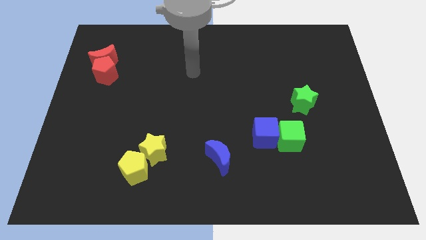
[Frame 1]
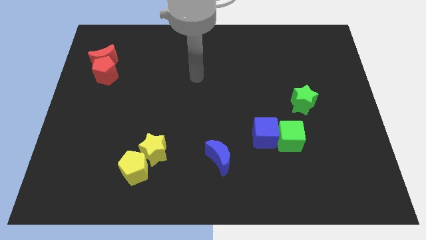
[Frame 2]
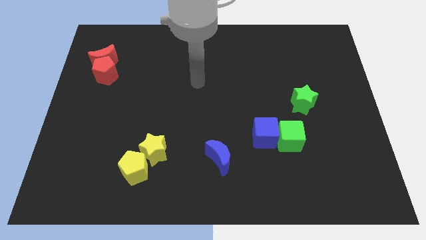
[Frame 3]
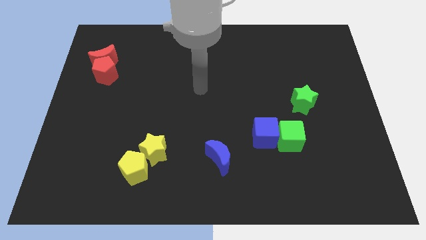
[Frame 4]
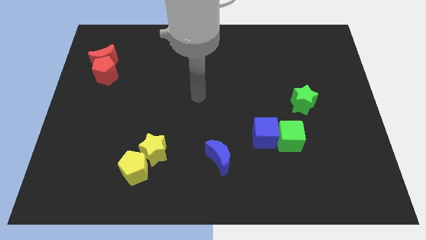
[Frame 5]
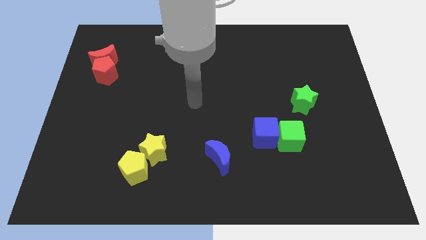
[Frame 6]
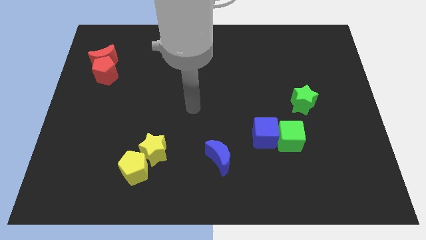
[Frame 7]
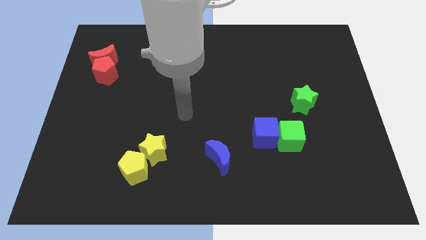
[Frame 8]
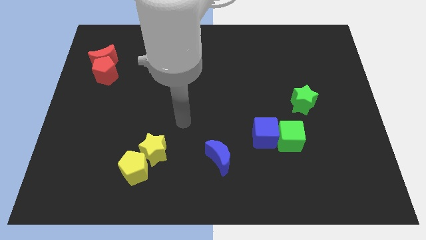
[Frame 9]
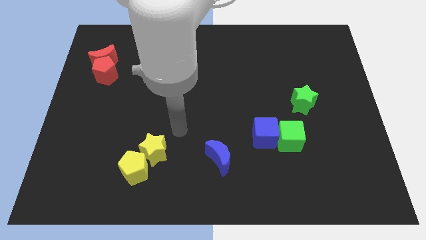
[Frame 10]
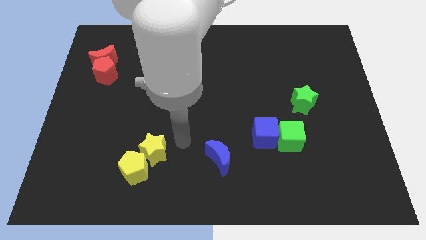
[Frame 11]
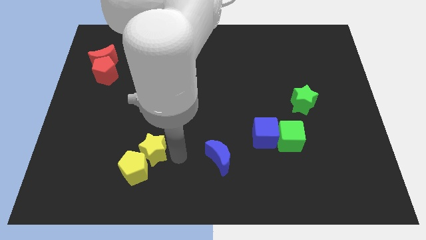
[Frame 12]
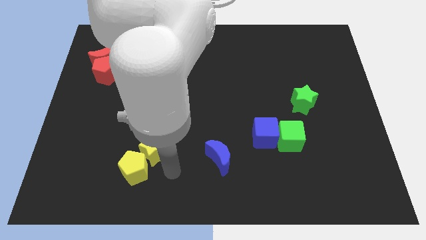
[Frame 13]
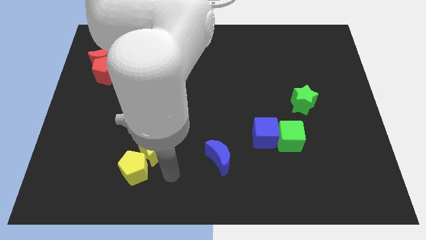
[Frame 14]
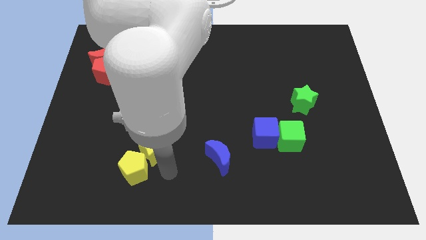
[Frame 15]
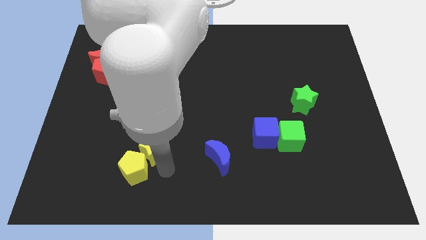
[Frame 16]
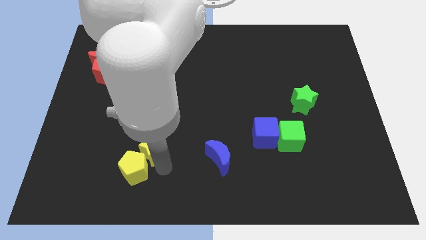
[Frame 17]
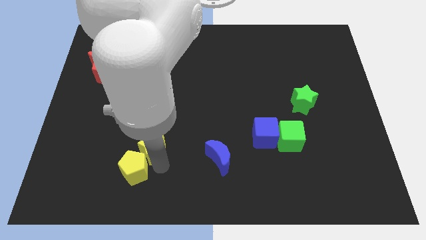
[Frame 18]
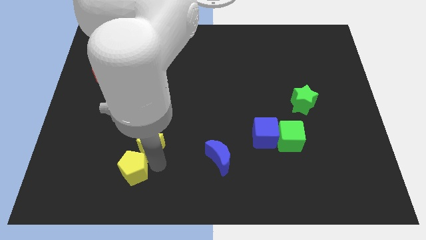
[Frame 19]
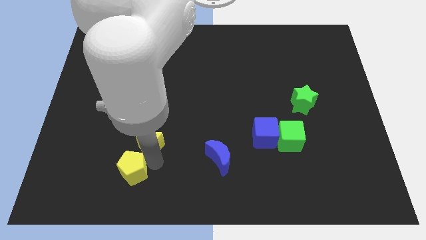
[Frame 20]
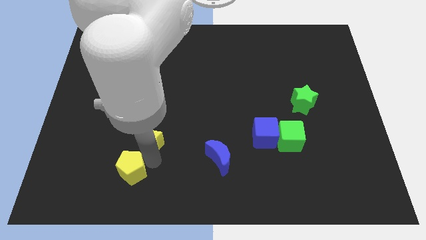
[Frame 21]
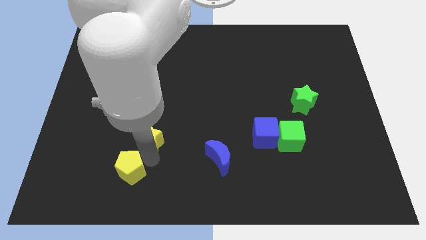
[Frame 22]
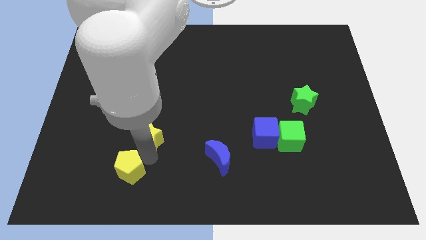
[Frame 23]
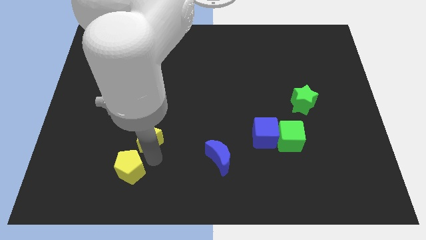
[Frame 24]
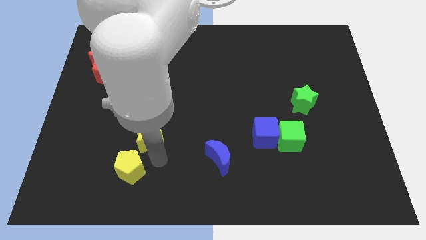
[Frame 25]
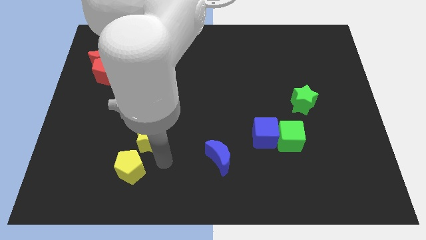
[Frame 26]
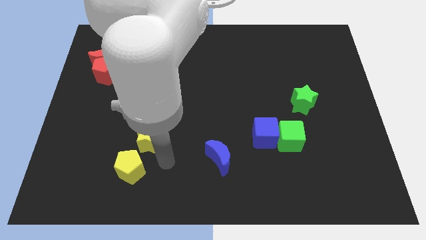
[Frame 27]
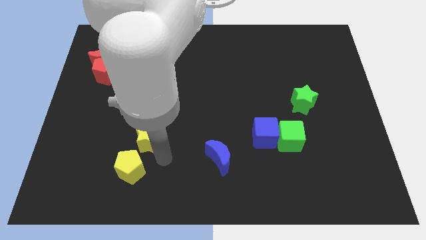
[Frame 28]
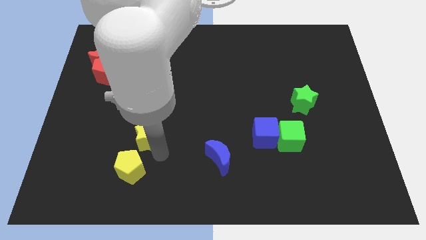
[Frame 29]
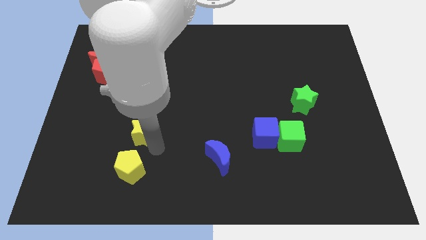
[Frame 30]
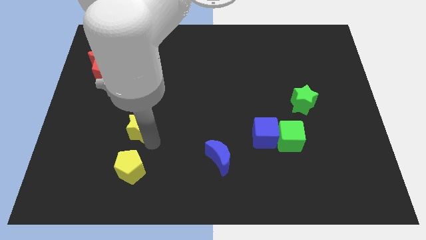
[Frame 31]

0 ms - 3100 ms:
move the yellow star diagonally upwards and left slightly

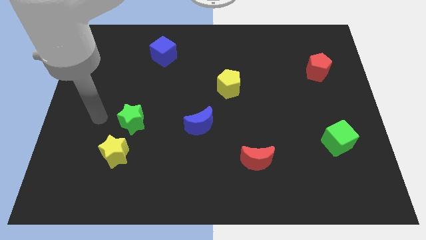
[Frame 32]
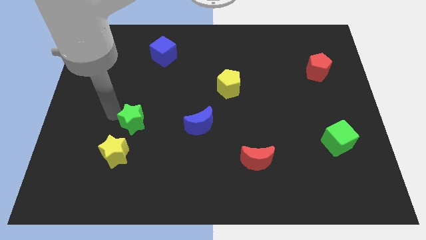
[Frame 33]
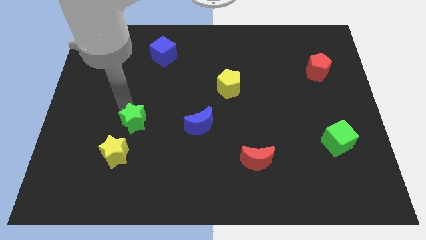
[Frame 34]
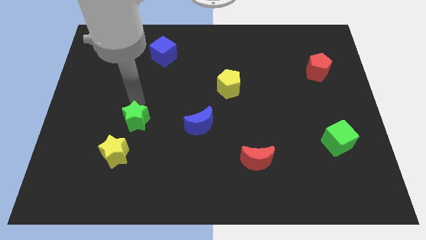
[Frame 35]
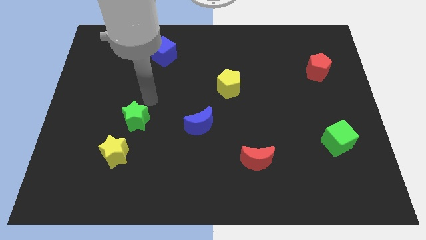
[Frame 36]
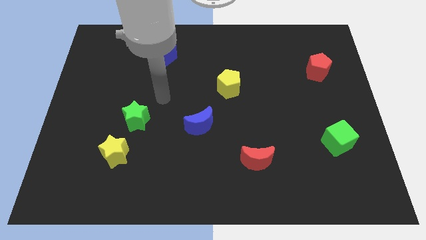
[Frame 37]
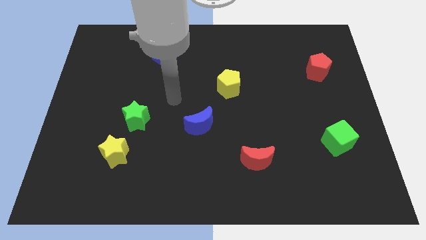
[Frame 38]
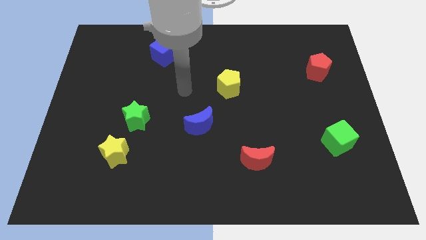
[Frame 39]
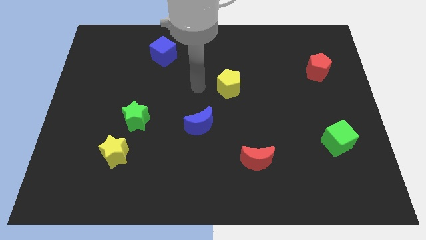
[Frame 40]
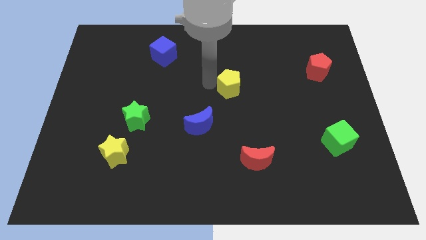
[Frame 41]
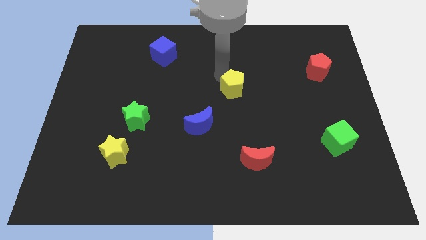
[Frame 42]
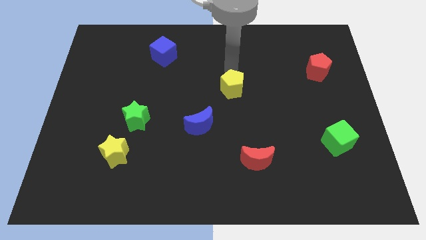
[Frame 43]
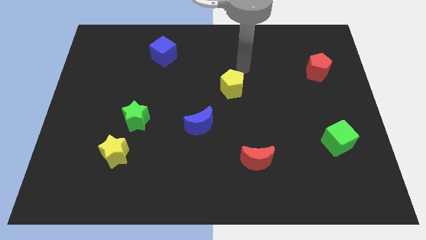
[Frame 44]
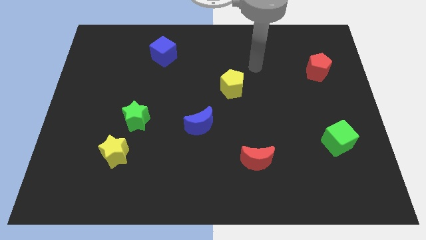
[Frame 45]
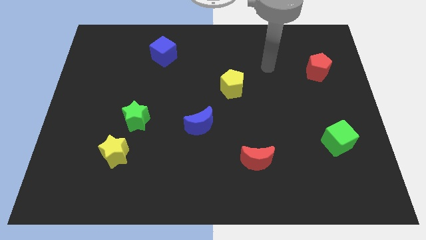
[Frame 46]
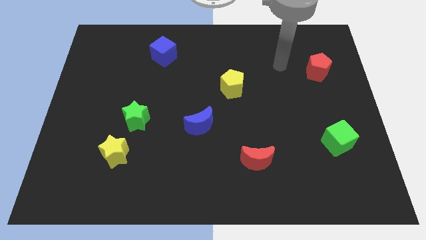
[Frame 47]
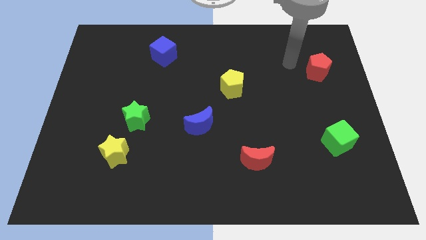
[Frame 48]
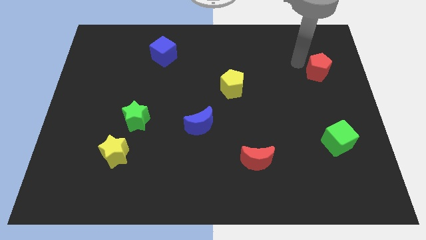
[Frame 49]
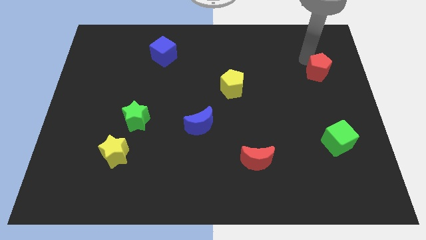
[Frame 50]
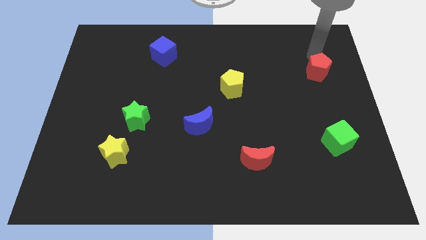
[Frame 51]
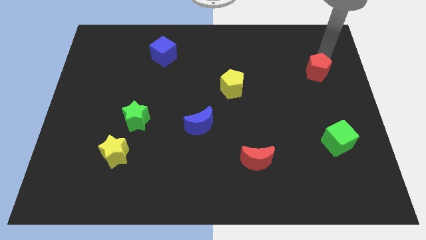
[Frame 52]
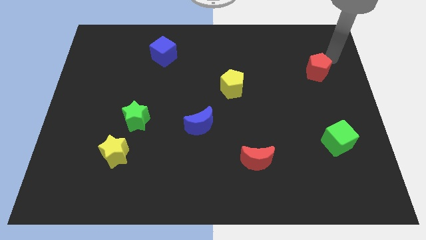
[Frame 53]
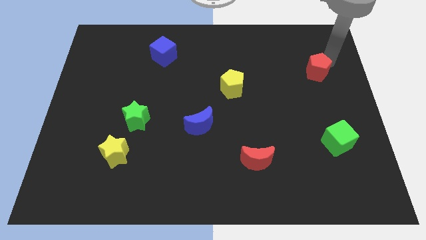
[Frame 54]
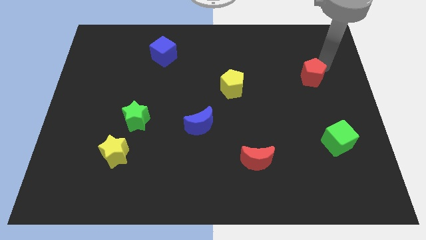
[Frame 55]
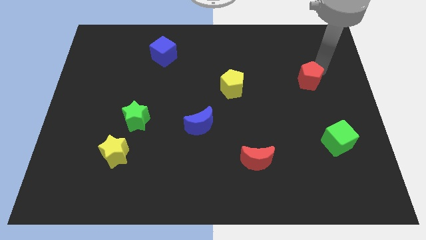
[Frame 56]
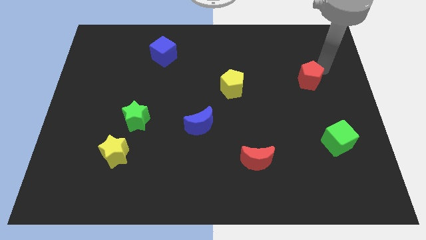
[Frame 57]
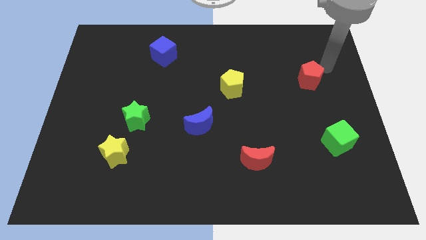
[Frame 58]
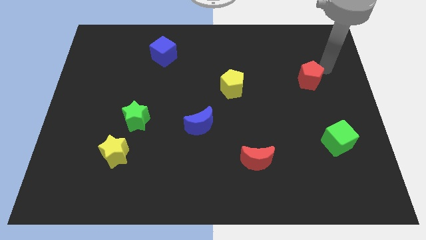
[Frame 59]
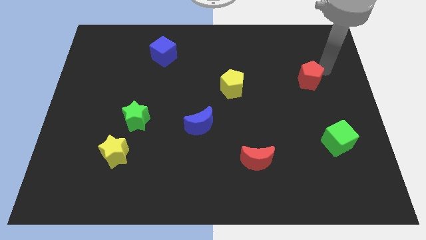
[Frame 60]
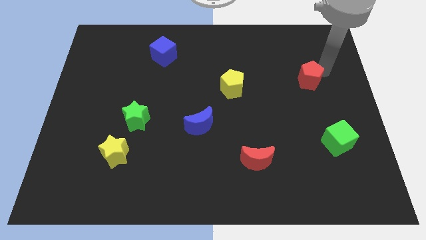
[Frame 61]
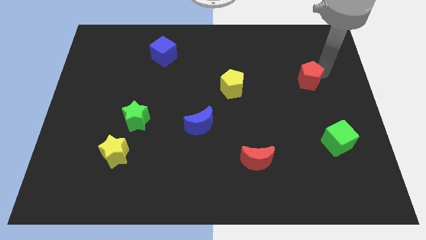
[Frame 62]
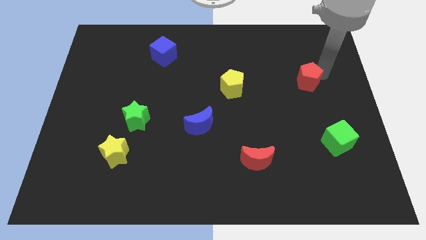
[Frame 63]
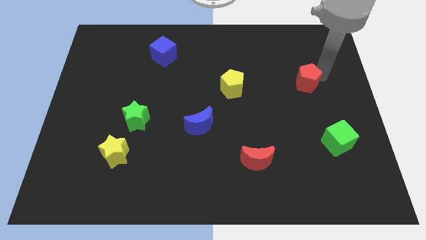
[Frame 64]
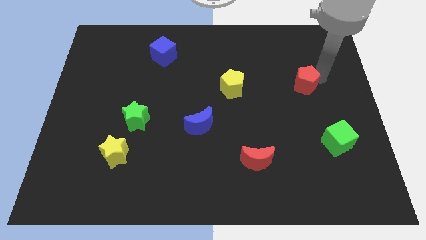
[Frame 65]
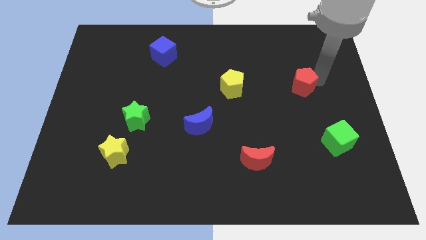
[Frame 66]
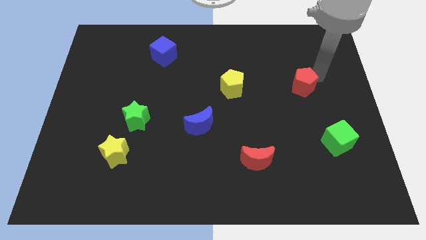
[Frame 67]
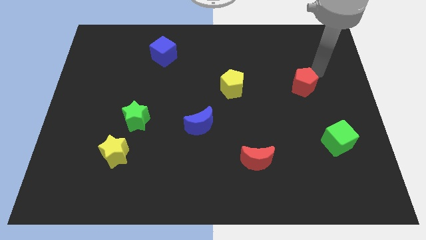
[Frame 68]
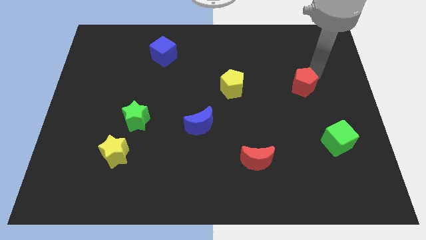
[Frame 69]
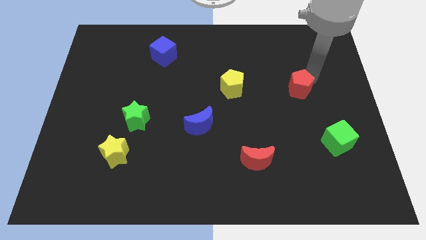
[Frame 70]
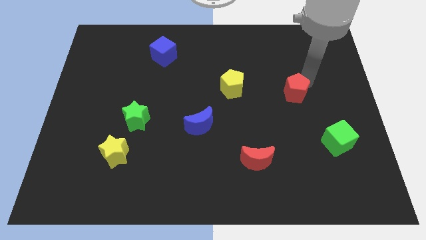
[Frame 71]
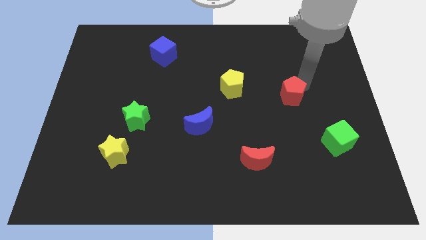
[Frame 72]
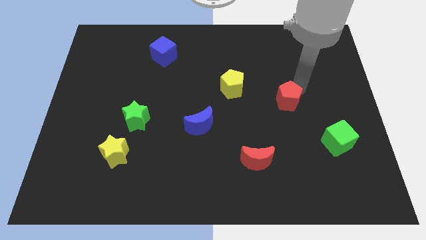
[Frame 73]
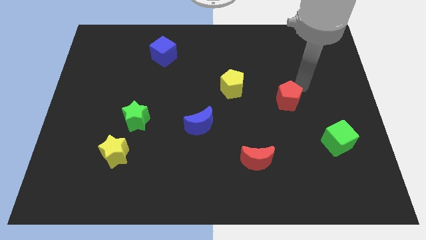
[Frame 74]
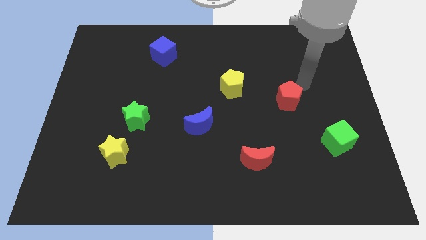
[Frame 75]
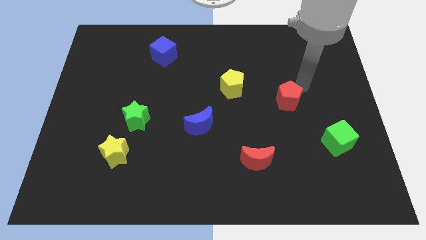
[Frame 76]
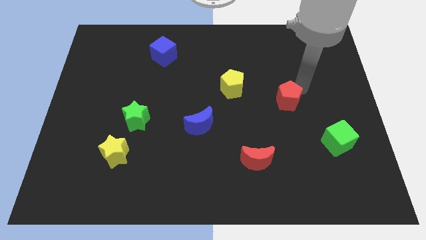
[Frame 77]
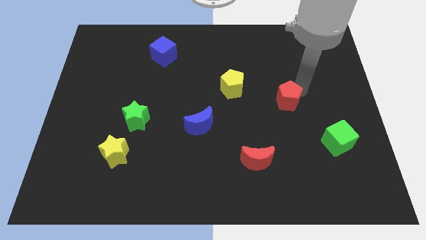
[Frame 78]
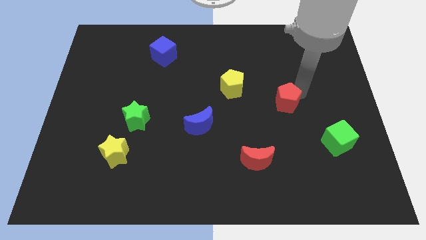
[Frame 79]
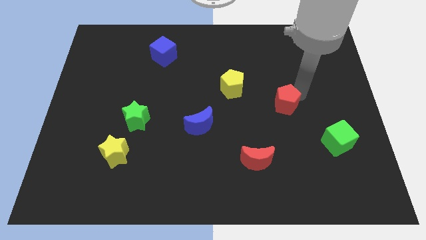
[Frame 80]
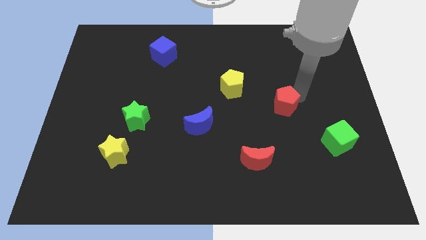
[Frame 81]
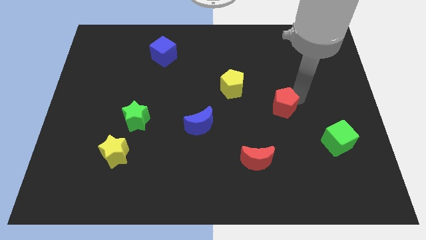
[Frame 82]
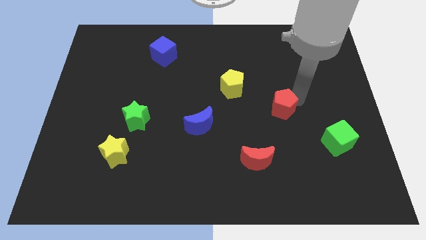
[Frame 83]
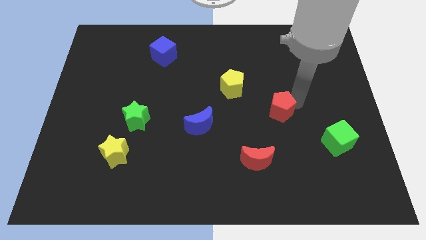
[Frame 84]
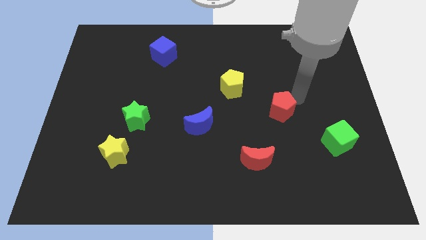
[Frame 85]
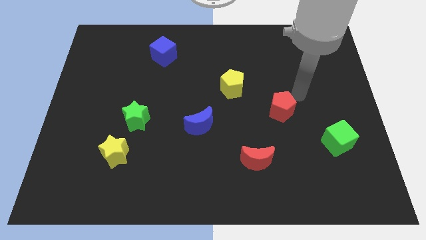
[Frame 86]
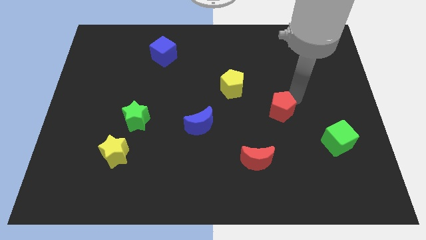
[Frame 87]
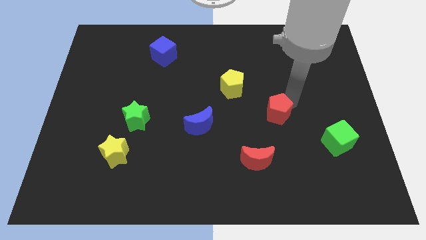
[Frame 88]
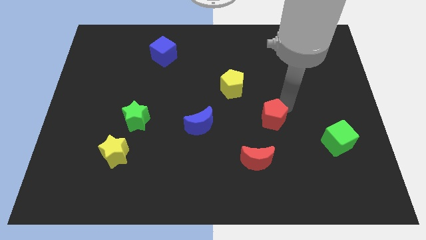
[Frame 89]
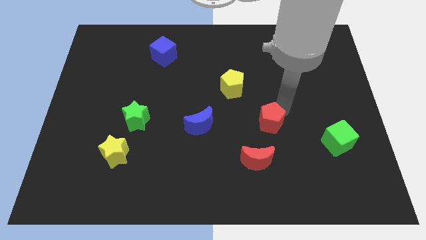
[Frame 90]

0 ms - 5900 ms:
slide the red pentagon downwards and then to the left
